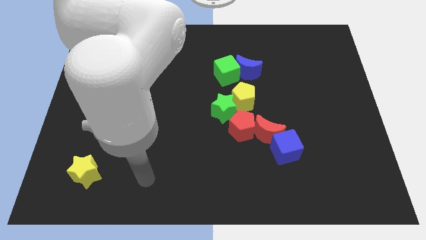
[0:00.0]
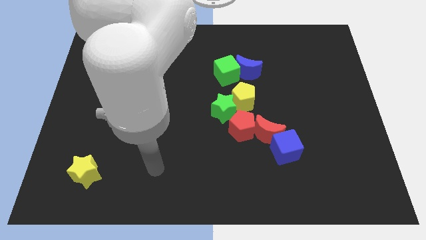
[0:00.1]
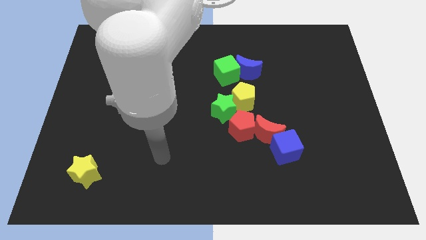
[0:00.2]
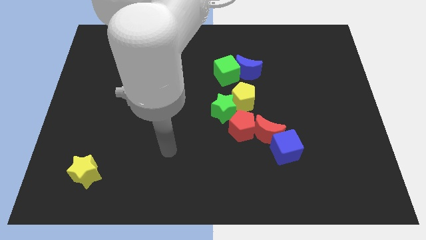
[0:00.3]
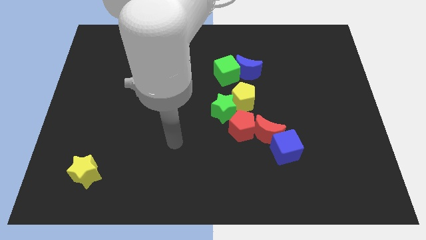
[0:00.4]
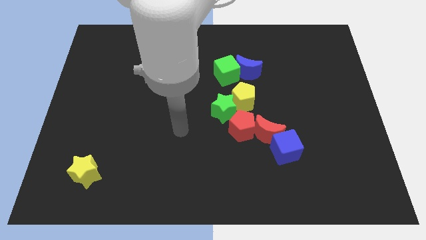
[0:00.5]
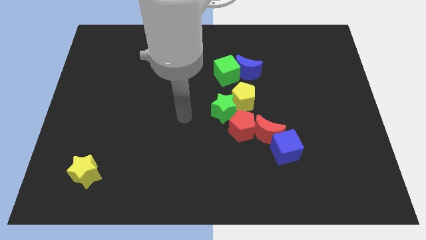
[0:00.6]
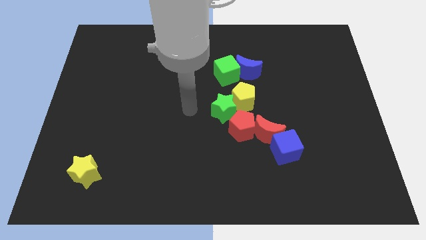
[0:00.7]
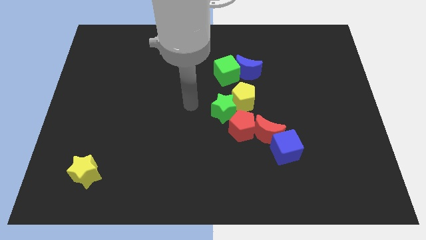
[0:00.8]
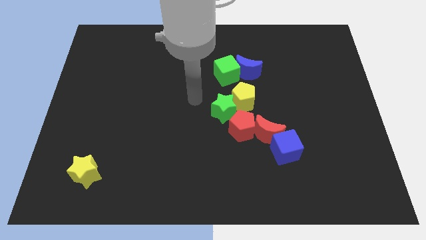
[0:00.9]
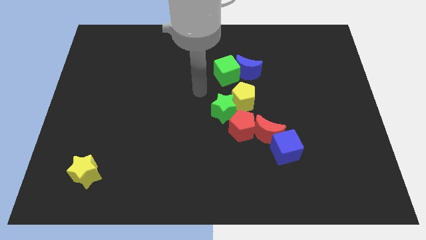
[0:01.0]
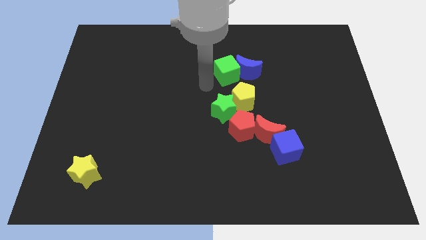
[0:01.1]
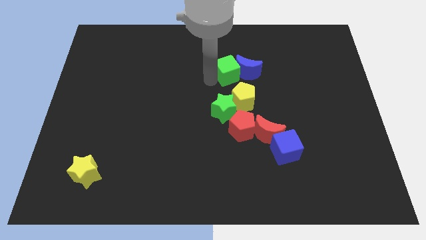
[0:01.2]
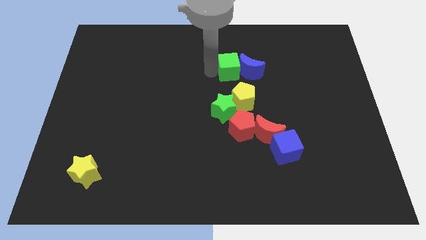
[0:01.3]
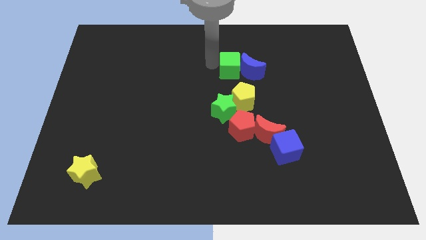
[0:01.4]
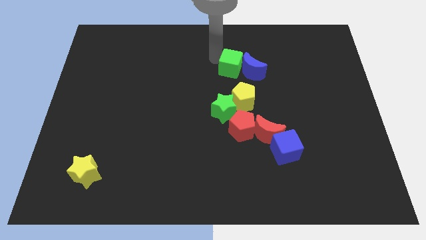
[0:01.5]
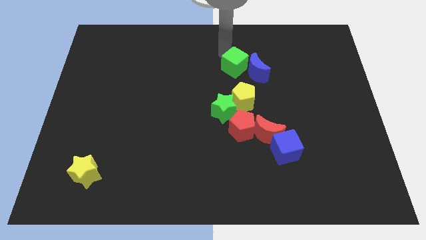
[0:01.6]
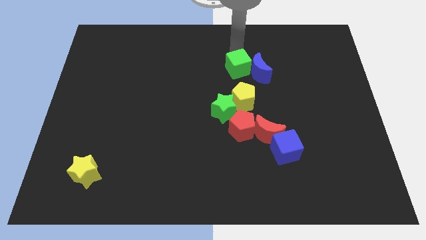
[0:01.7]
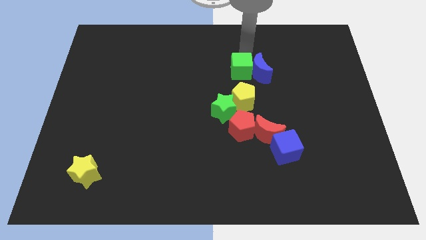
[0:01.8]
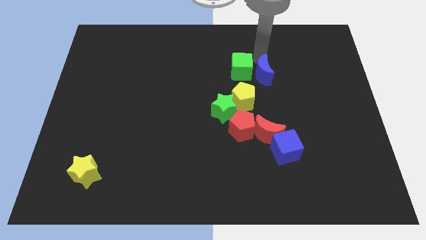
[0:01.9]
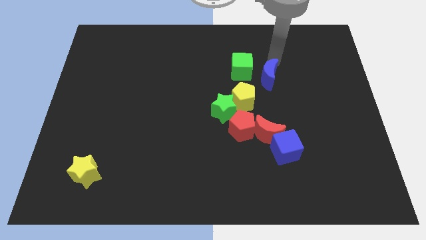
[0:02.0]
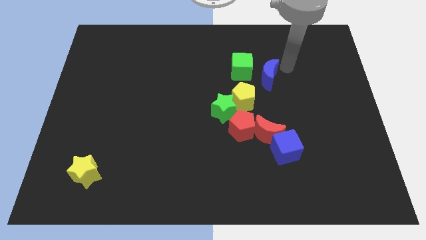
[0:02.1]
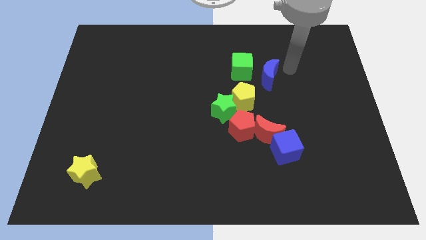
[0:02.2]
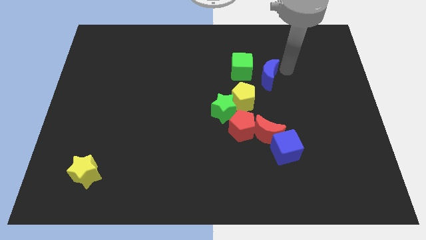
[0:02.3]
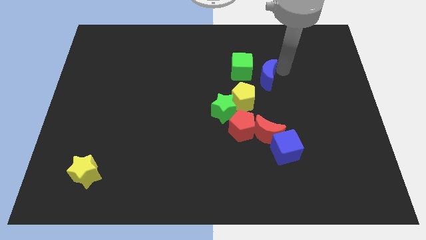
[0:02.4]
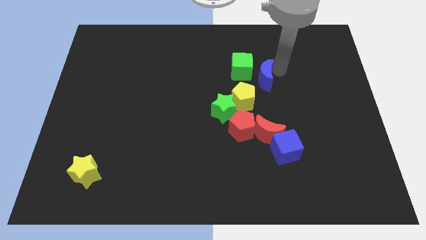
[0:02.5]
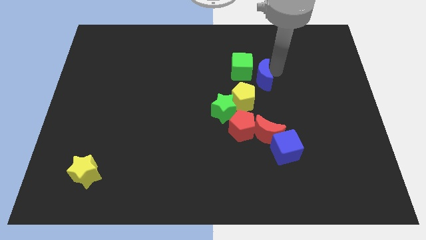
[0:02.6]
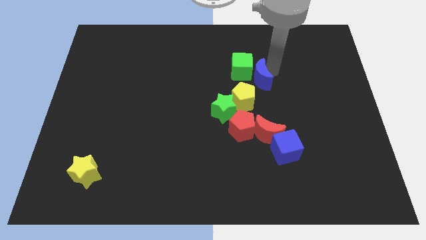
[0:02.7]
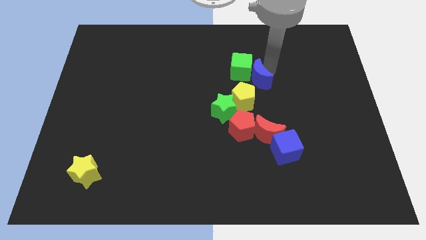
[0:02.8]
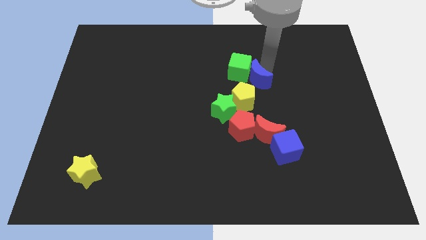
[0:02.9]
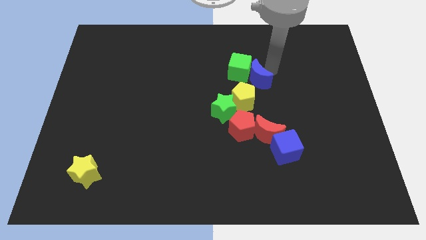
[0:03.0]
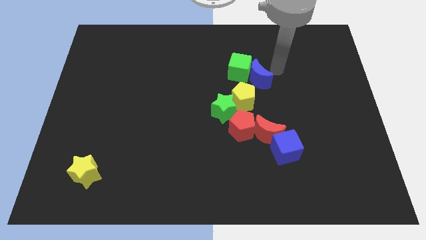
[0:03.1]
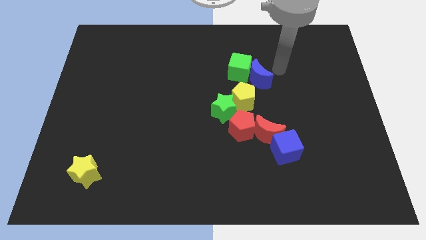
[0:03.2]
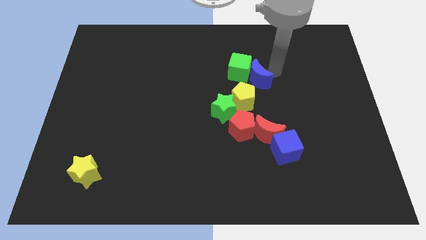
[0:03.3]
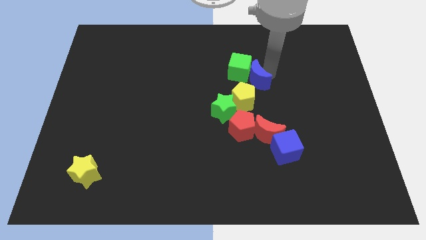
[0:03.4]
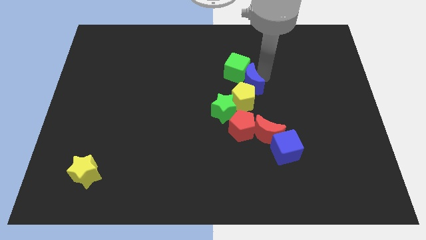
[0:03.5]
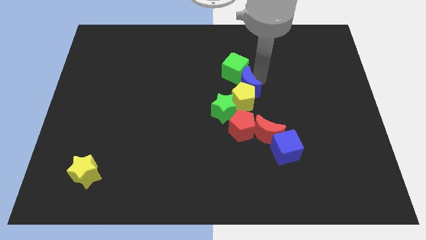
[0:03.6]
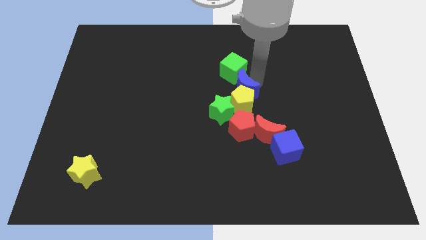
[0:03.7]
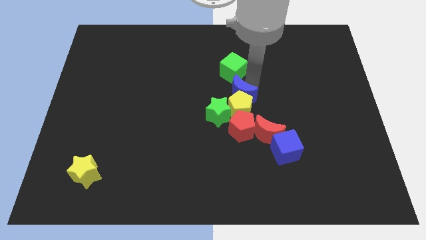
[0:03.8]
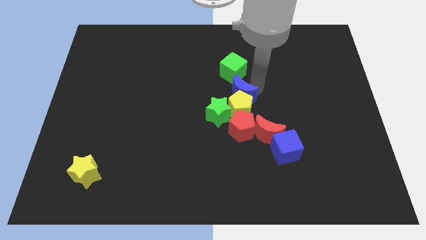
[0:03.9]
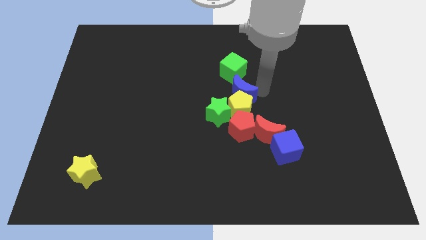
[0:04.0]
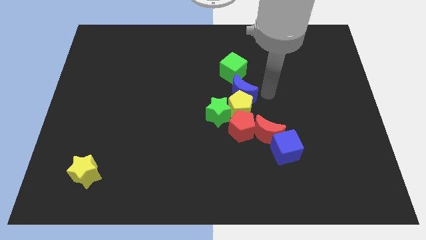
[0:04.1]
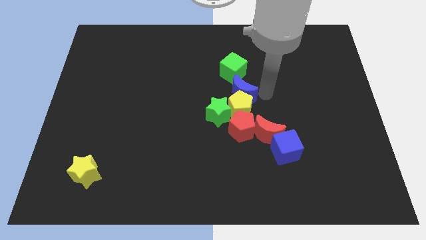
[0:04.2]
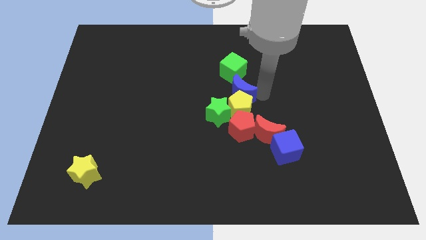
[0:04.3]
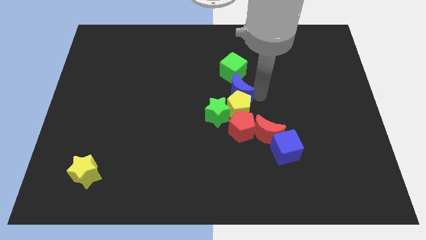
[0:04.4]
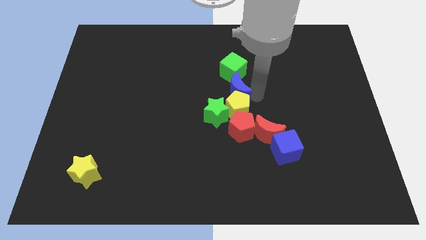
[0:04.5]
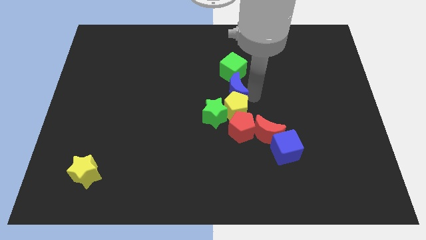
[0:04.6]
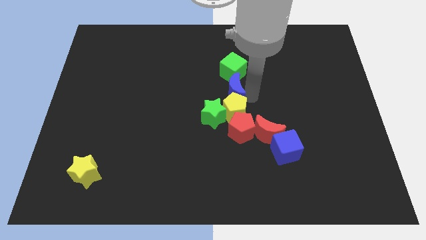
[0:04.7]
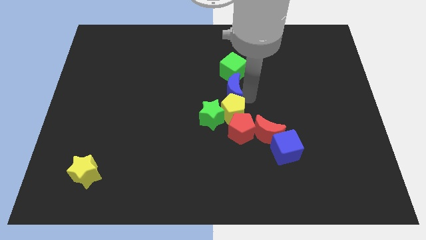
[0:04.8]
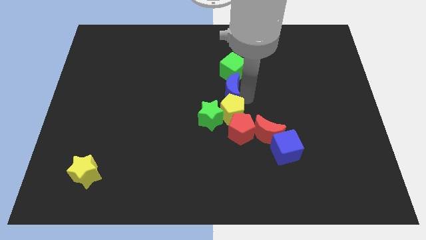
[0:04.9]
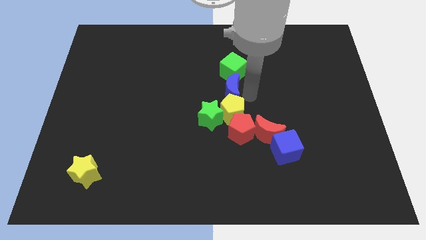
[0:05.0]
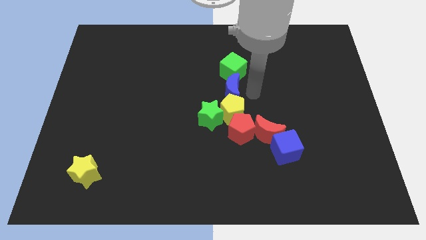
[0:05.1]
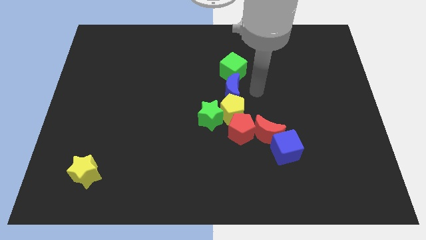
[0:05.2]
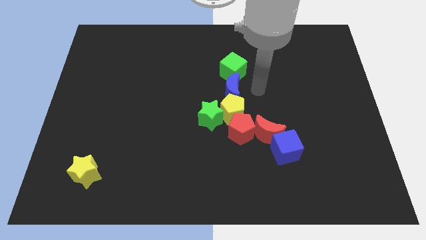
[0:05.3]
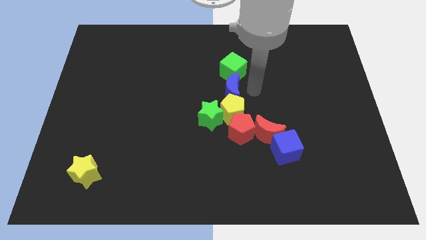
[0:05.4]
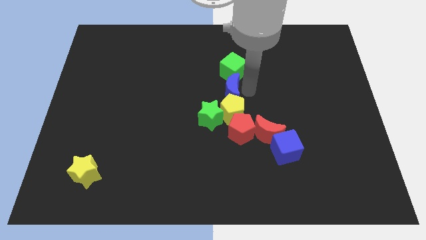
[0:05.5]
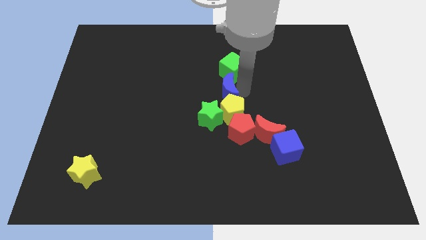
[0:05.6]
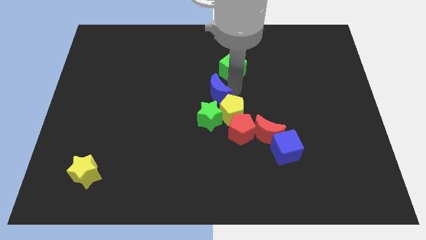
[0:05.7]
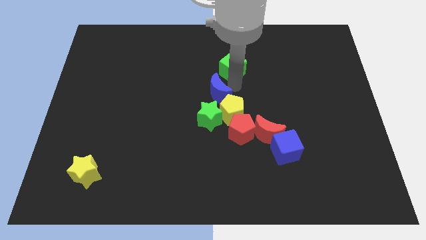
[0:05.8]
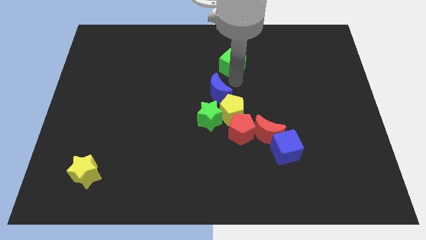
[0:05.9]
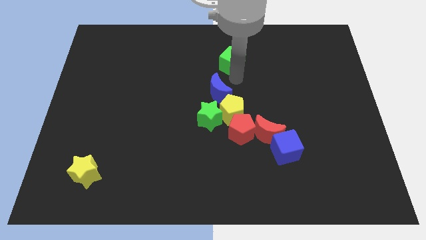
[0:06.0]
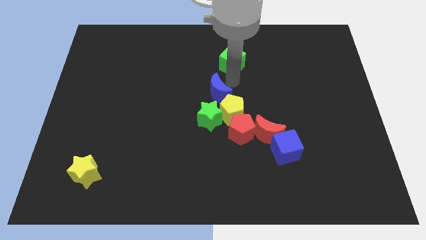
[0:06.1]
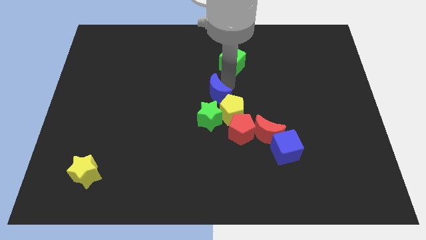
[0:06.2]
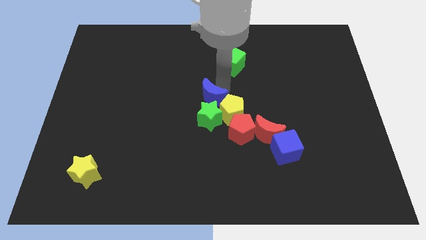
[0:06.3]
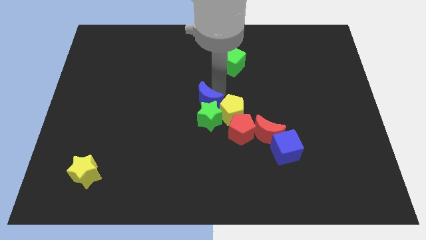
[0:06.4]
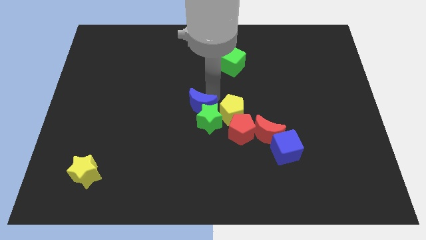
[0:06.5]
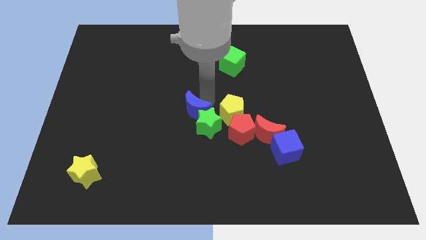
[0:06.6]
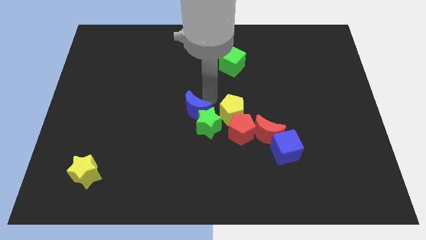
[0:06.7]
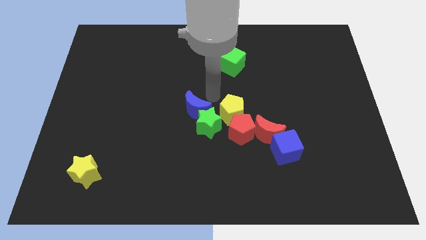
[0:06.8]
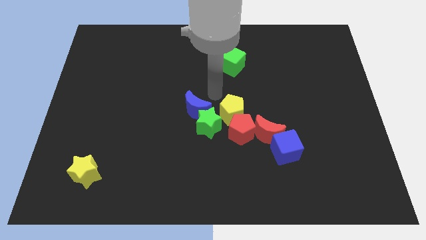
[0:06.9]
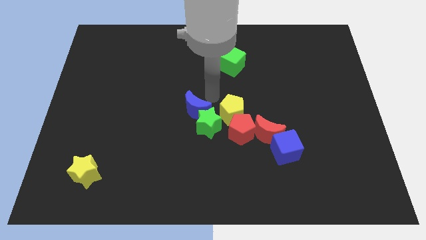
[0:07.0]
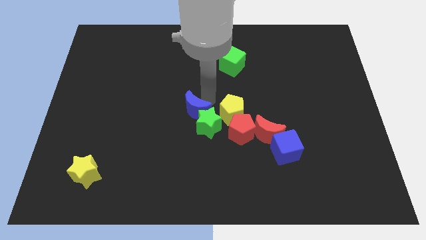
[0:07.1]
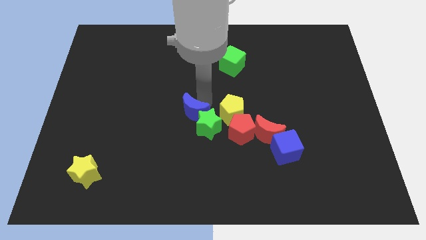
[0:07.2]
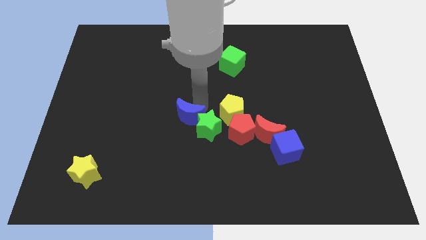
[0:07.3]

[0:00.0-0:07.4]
push the blue moon down and left diagonally

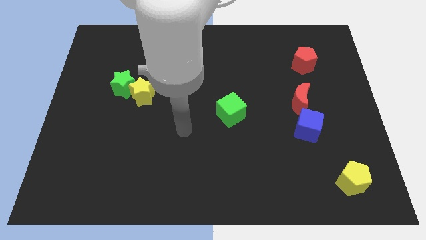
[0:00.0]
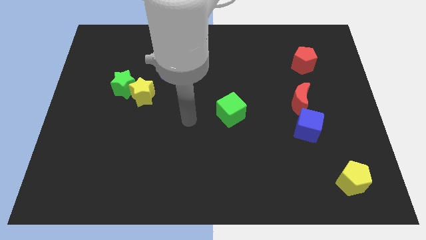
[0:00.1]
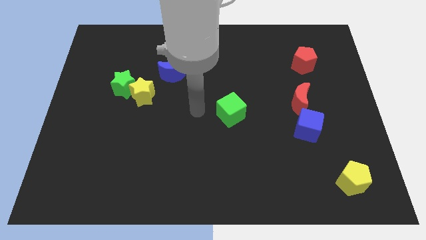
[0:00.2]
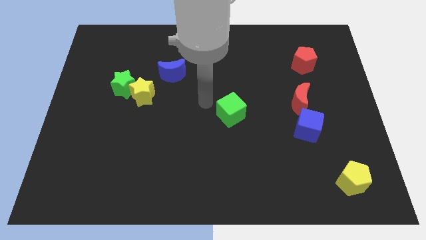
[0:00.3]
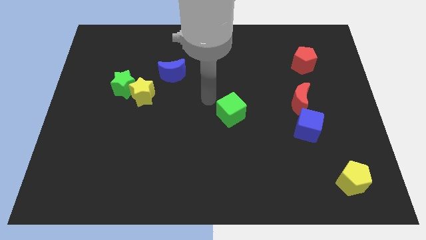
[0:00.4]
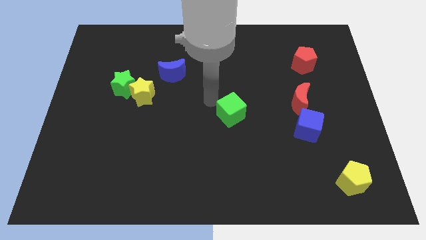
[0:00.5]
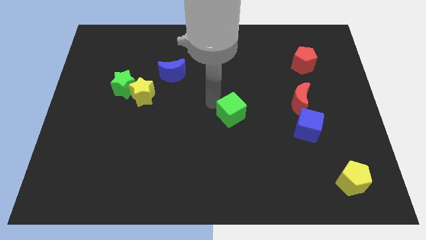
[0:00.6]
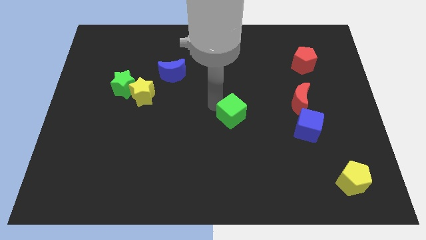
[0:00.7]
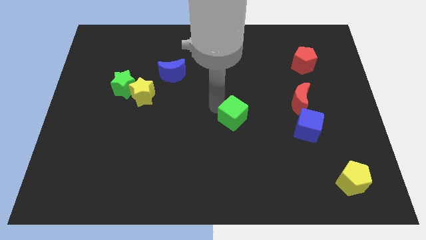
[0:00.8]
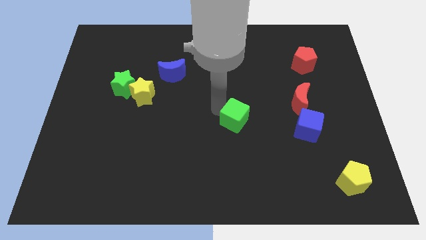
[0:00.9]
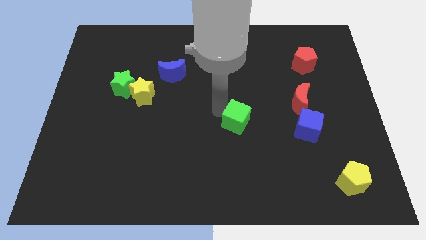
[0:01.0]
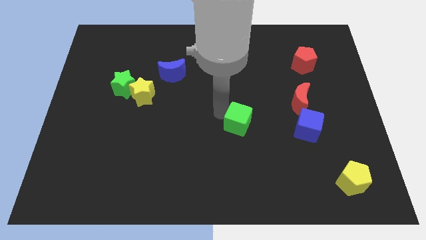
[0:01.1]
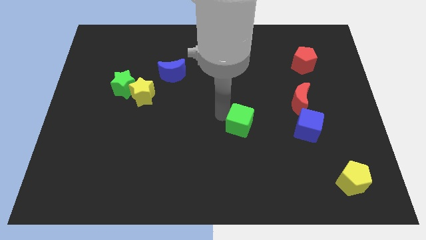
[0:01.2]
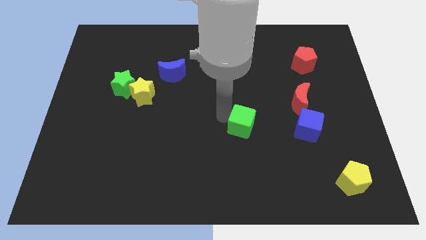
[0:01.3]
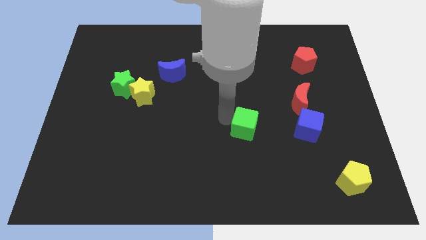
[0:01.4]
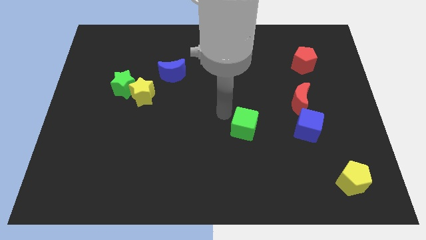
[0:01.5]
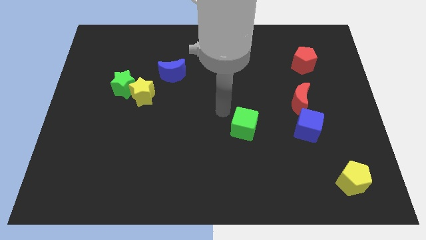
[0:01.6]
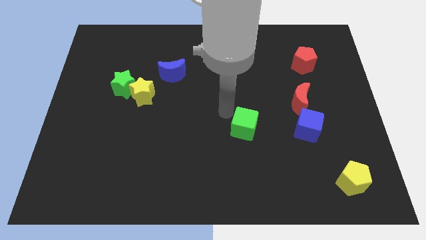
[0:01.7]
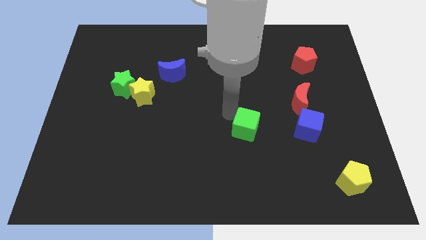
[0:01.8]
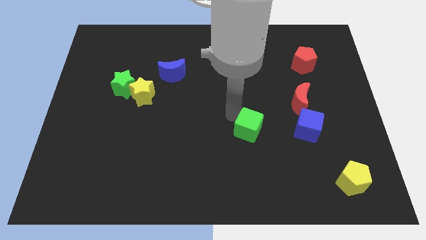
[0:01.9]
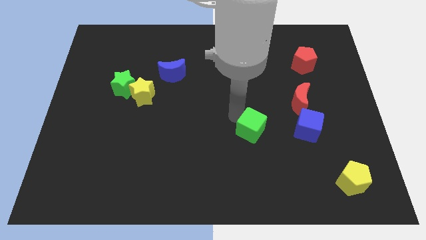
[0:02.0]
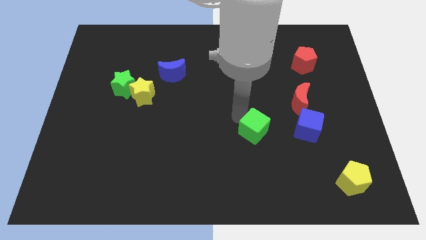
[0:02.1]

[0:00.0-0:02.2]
move the green cube somewhat down and then right
